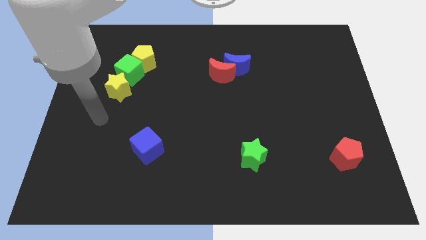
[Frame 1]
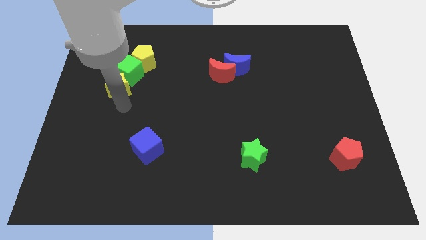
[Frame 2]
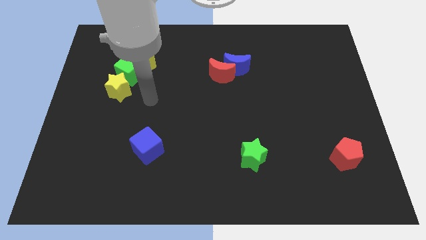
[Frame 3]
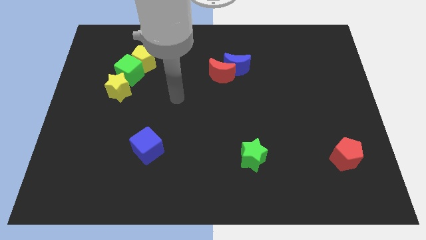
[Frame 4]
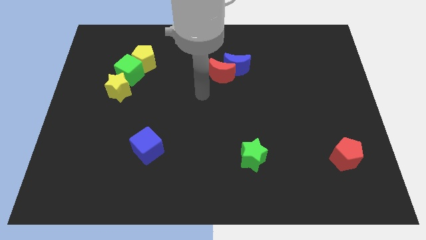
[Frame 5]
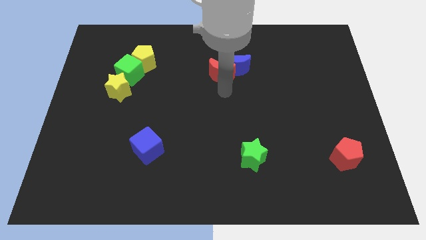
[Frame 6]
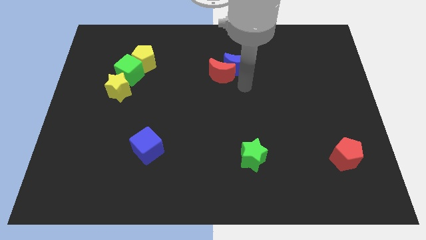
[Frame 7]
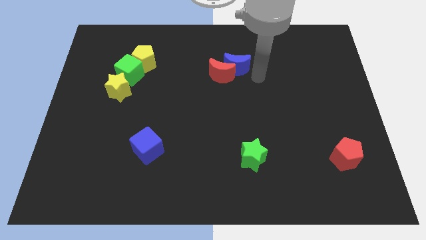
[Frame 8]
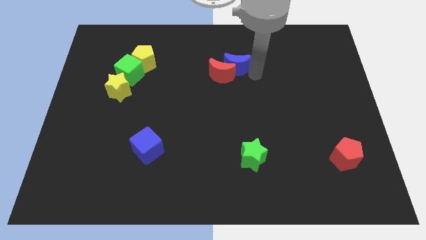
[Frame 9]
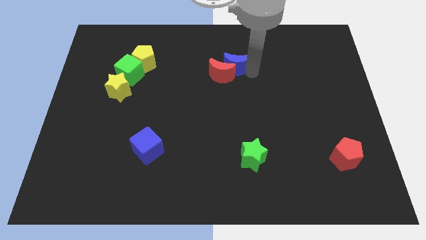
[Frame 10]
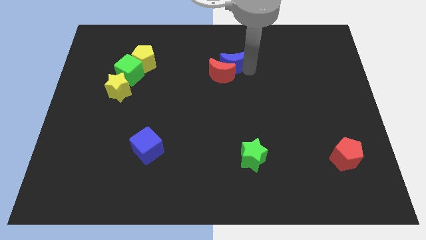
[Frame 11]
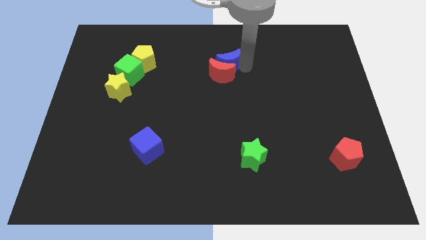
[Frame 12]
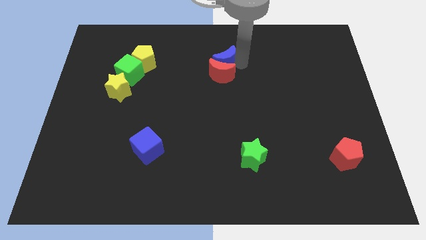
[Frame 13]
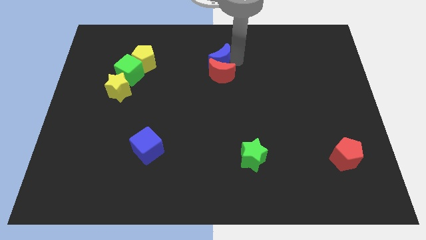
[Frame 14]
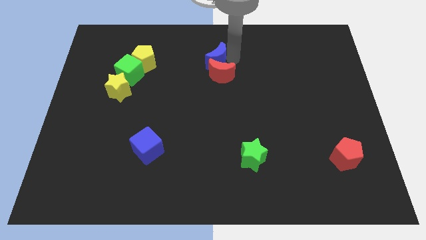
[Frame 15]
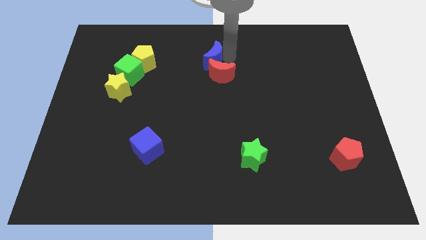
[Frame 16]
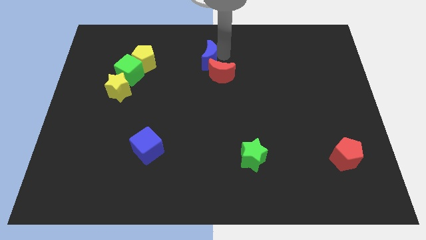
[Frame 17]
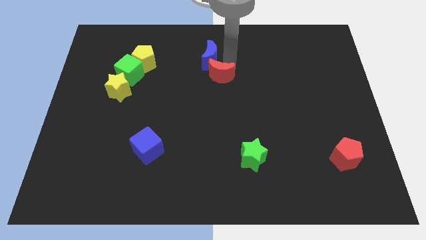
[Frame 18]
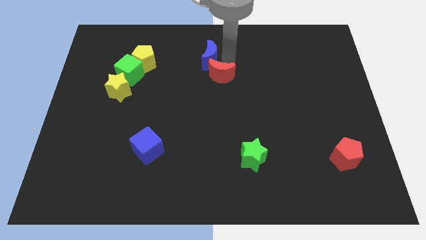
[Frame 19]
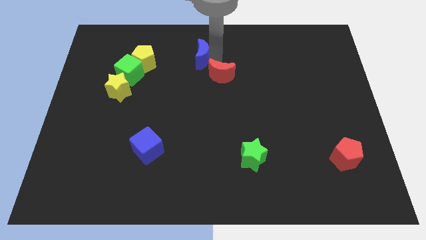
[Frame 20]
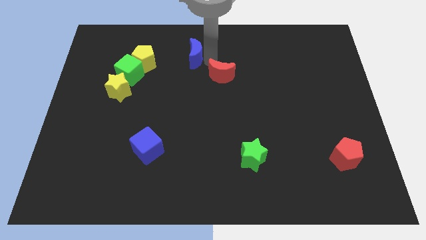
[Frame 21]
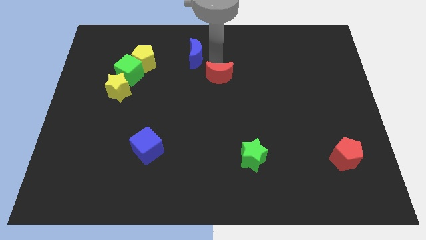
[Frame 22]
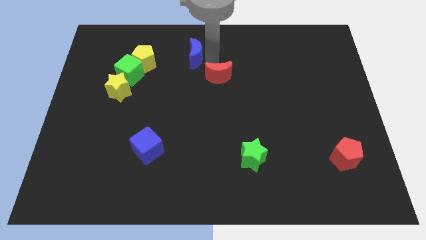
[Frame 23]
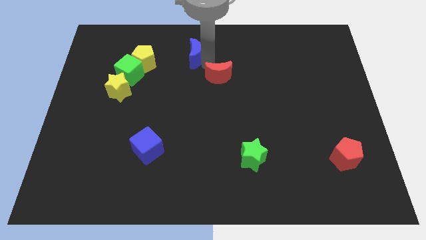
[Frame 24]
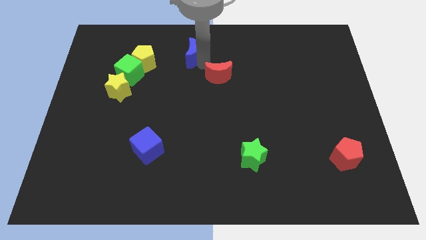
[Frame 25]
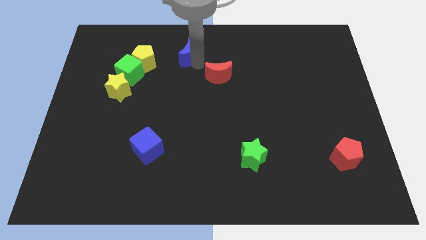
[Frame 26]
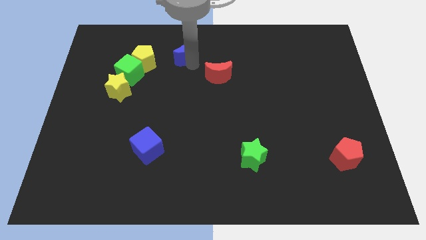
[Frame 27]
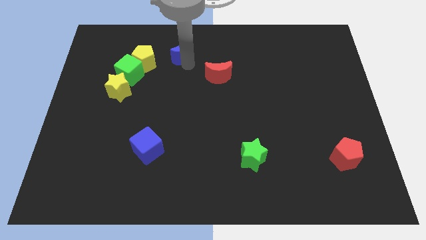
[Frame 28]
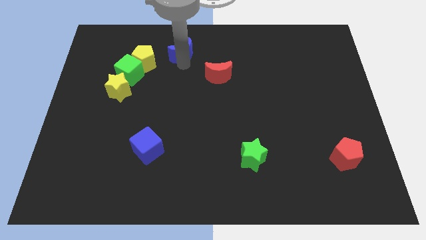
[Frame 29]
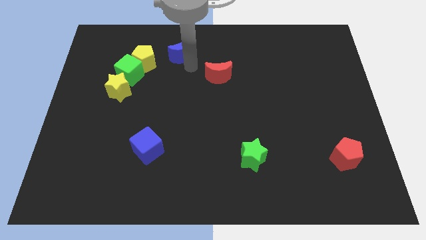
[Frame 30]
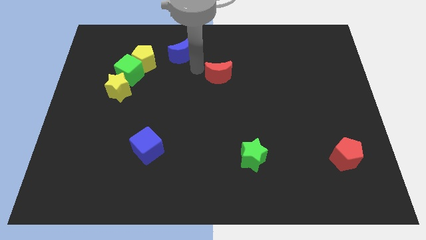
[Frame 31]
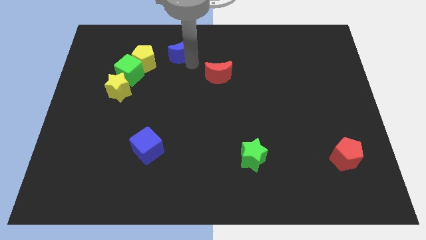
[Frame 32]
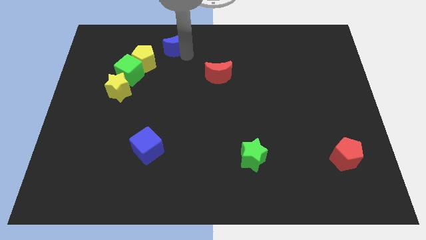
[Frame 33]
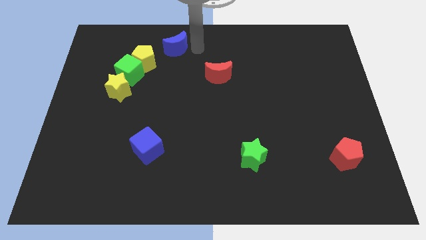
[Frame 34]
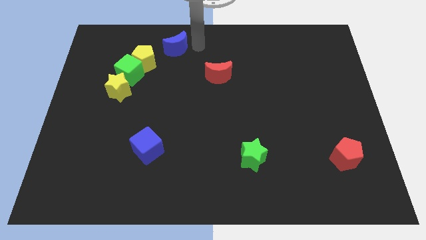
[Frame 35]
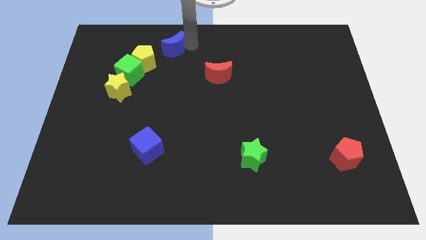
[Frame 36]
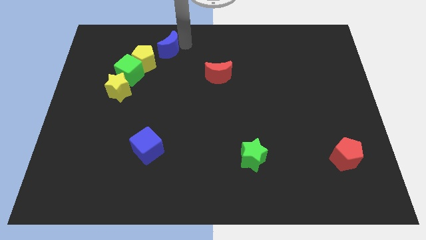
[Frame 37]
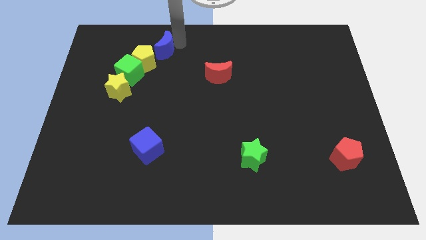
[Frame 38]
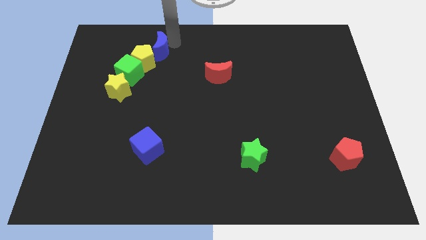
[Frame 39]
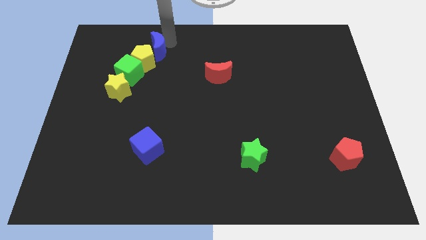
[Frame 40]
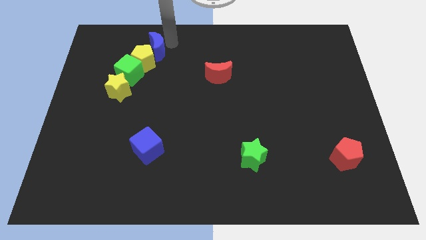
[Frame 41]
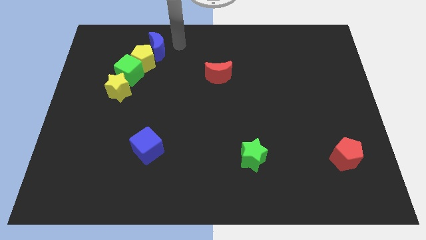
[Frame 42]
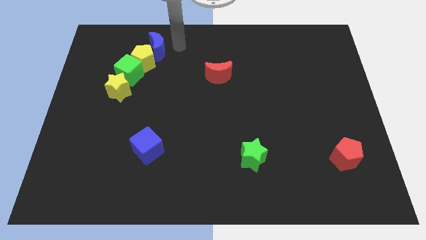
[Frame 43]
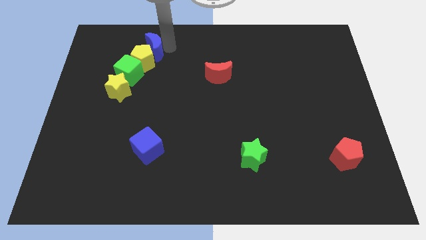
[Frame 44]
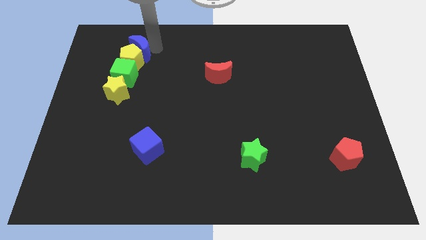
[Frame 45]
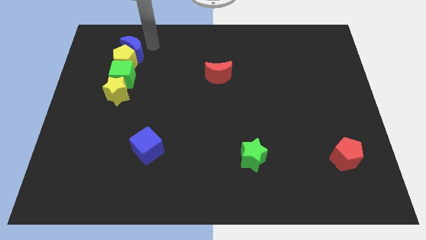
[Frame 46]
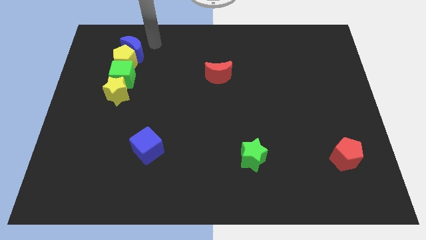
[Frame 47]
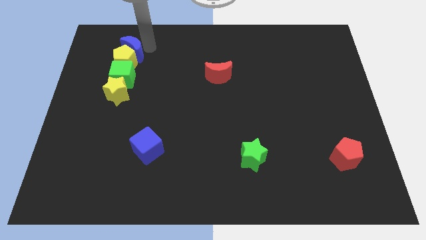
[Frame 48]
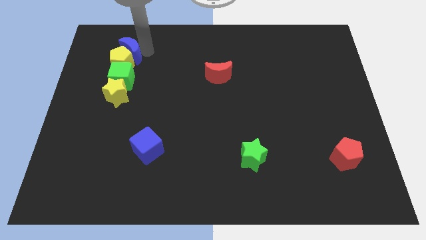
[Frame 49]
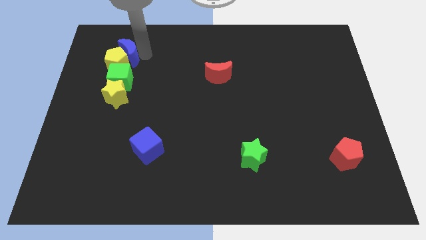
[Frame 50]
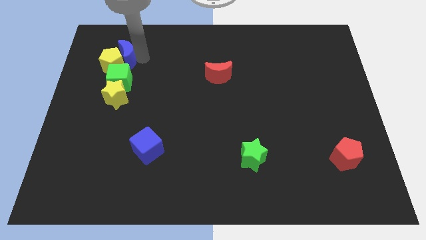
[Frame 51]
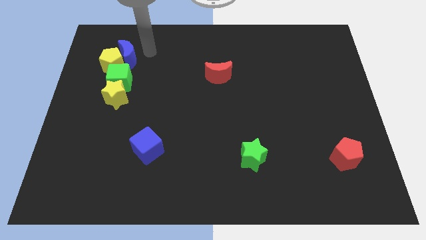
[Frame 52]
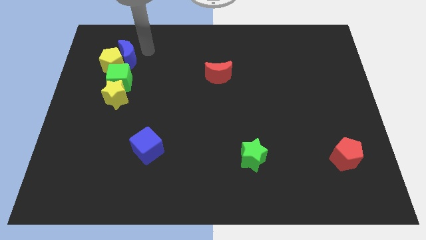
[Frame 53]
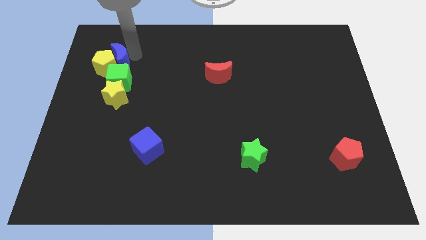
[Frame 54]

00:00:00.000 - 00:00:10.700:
put the blue moon to the top left of the green cube

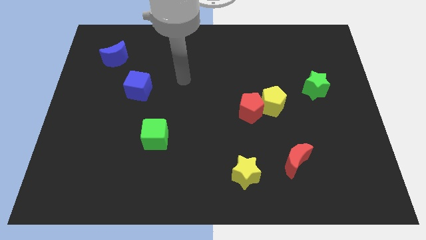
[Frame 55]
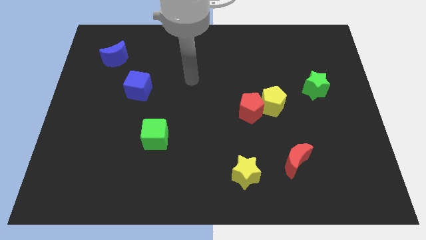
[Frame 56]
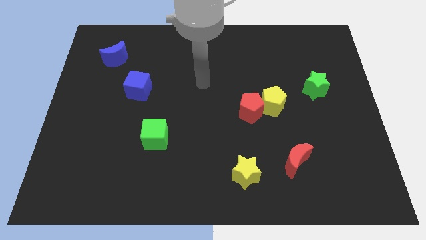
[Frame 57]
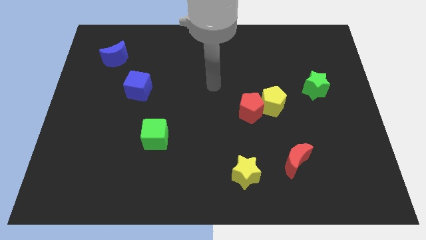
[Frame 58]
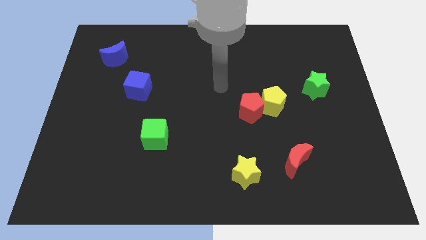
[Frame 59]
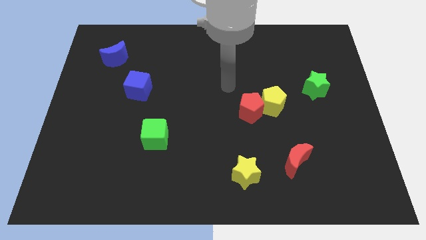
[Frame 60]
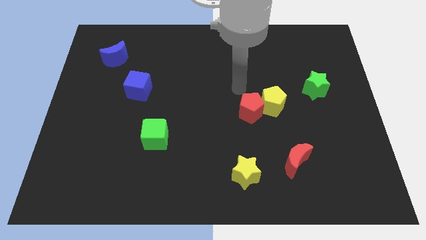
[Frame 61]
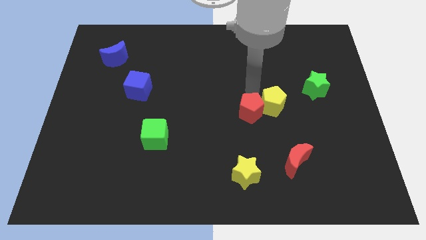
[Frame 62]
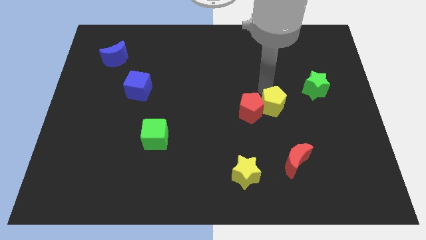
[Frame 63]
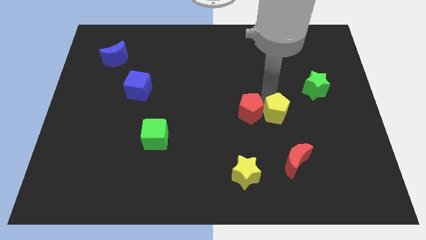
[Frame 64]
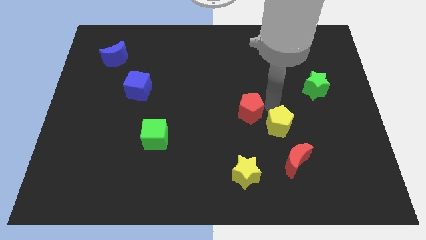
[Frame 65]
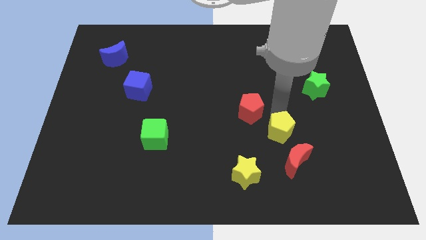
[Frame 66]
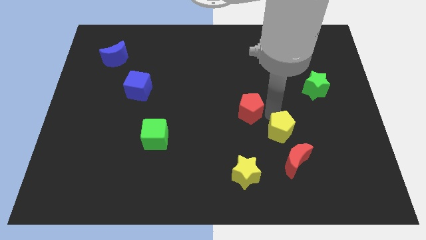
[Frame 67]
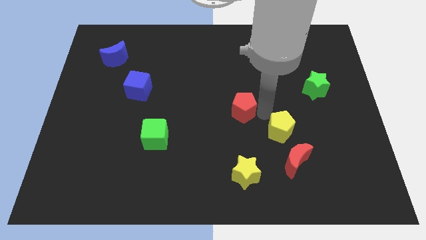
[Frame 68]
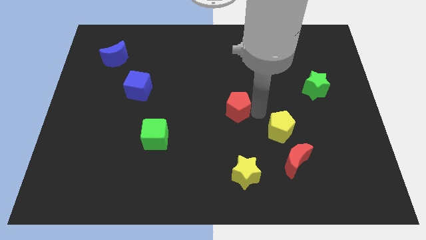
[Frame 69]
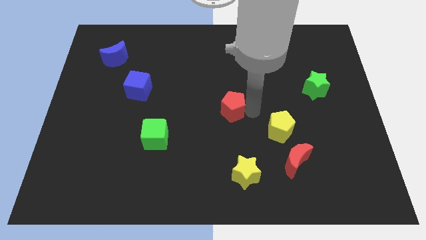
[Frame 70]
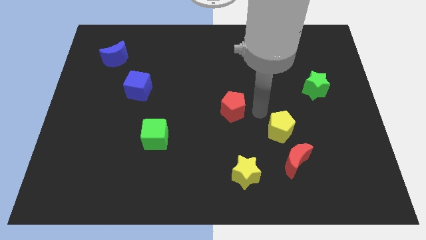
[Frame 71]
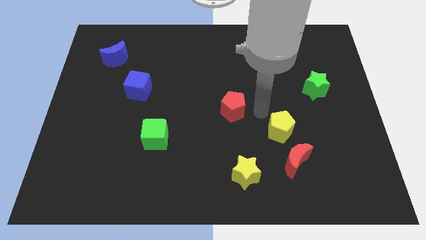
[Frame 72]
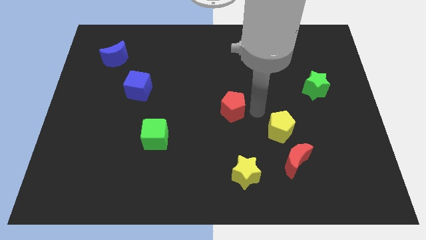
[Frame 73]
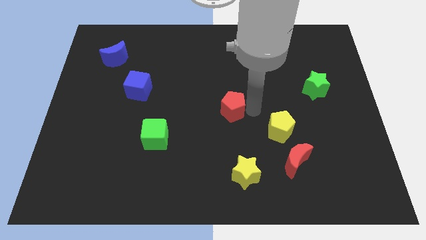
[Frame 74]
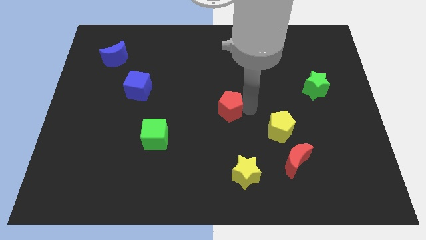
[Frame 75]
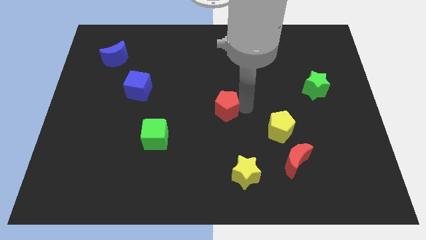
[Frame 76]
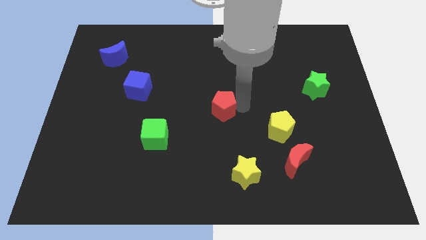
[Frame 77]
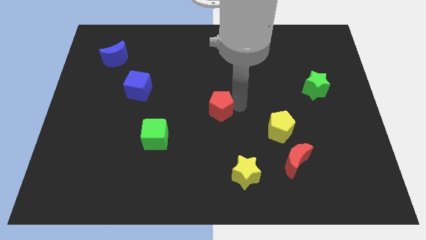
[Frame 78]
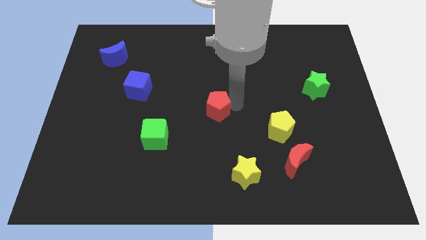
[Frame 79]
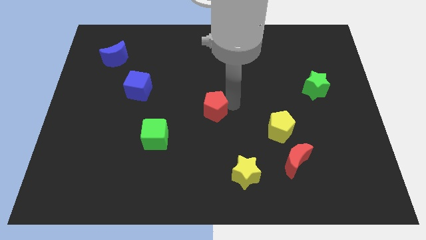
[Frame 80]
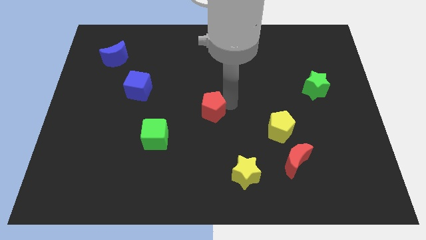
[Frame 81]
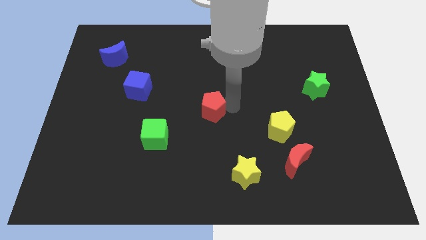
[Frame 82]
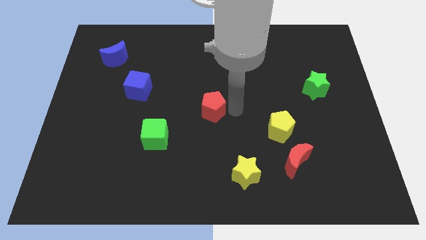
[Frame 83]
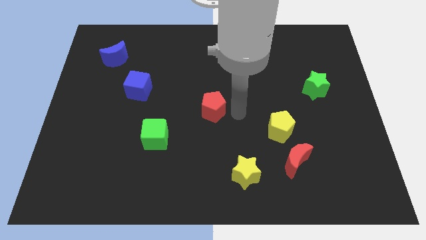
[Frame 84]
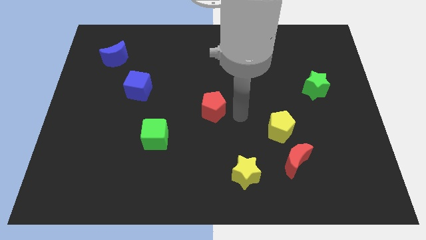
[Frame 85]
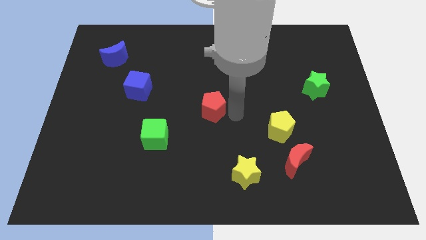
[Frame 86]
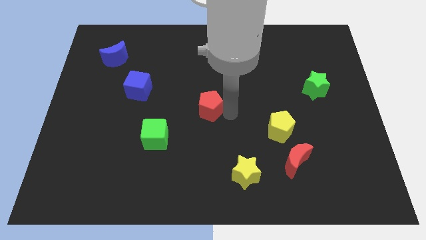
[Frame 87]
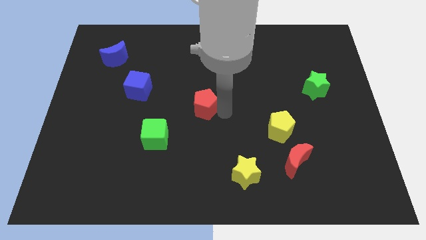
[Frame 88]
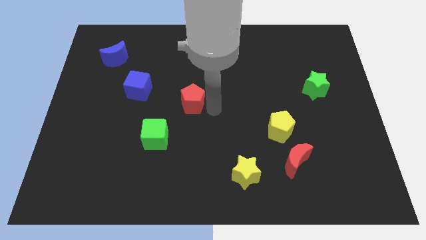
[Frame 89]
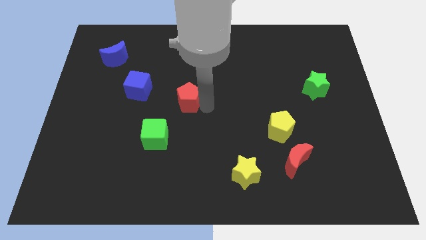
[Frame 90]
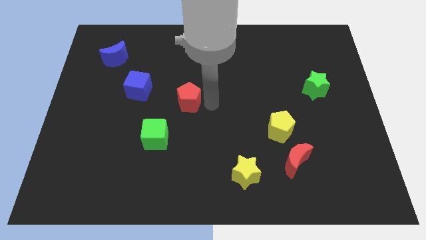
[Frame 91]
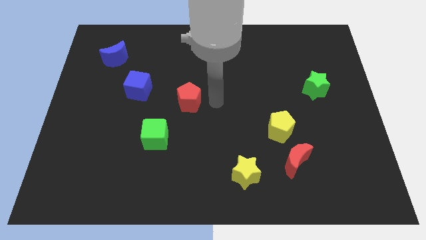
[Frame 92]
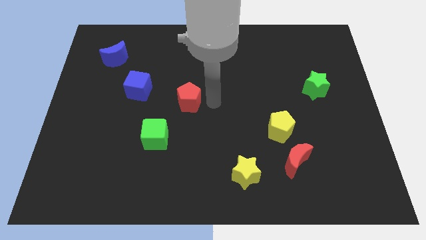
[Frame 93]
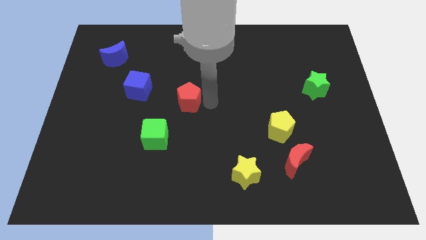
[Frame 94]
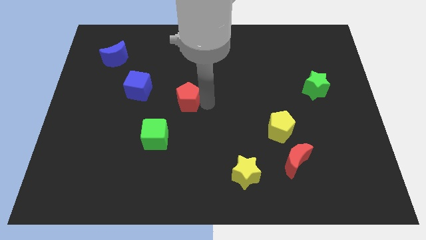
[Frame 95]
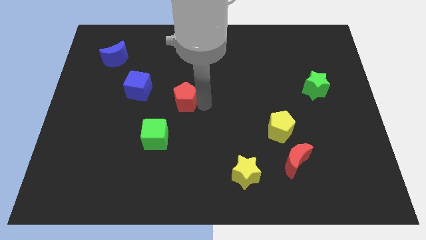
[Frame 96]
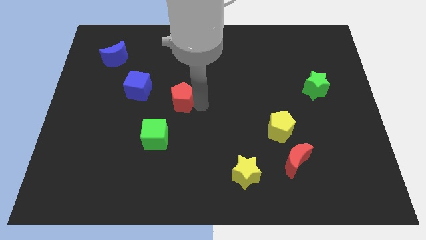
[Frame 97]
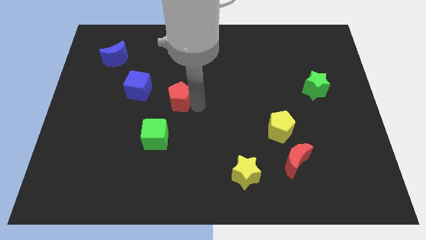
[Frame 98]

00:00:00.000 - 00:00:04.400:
push the red pentagon above the green cube
